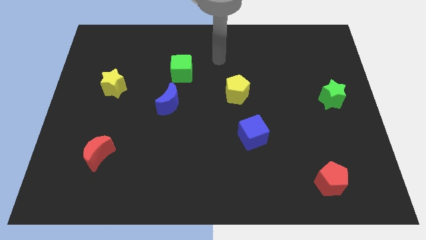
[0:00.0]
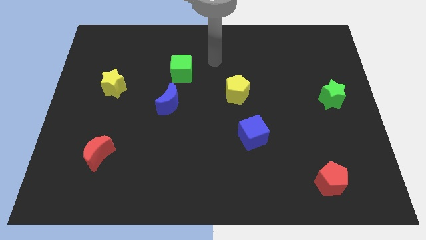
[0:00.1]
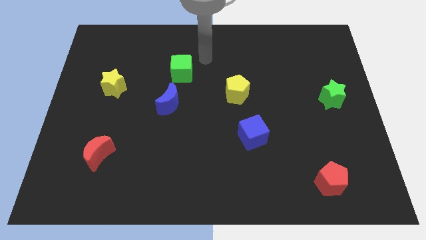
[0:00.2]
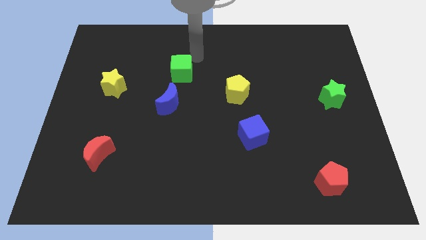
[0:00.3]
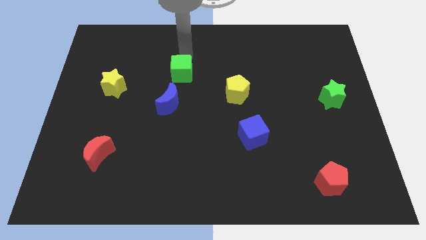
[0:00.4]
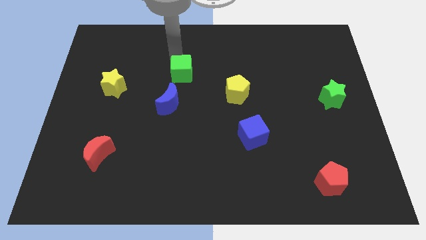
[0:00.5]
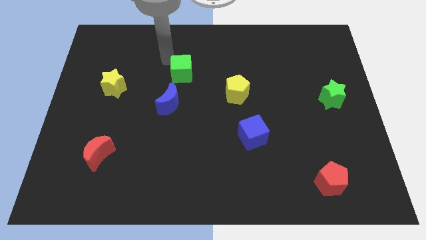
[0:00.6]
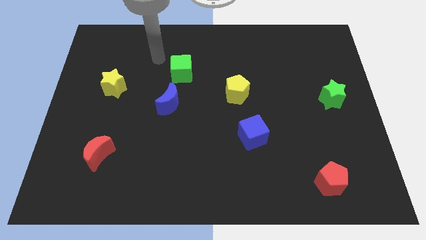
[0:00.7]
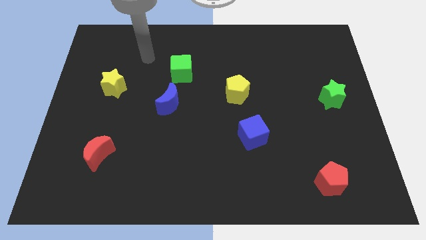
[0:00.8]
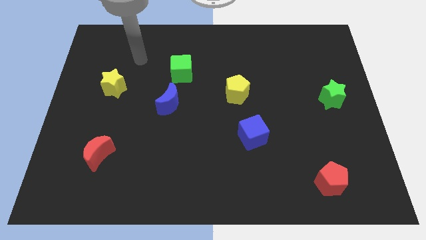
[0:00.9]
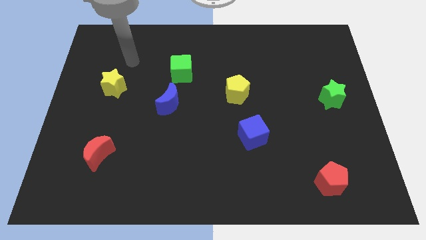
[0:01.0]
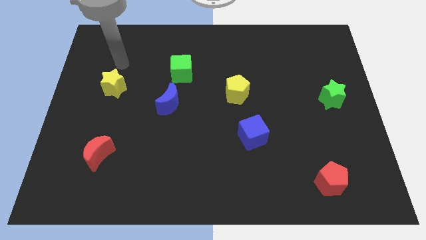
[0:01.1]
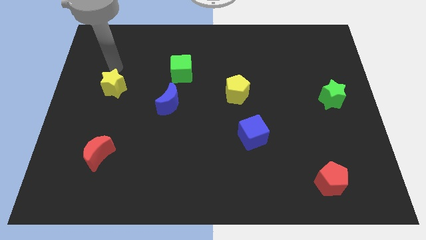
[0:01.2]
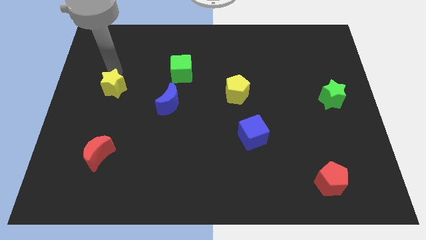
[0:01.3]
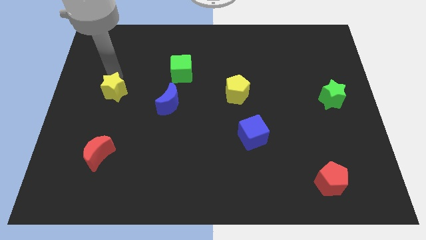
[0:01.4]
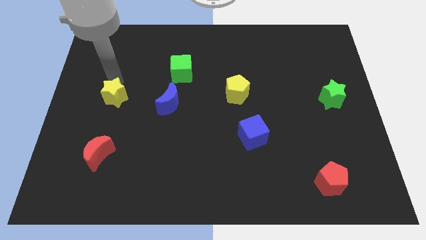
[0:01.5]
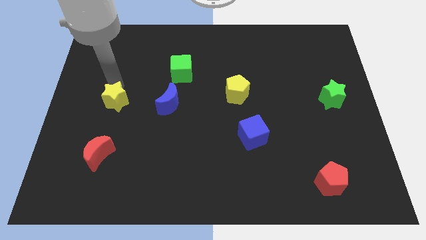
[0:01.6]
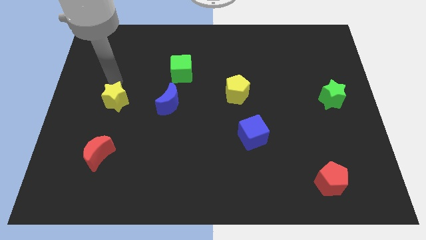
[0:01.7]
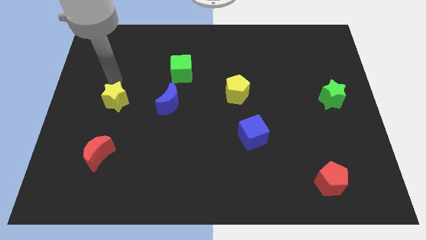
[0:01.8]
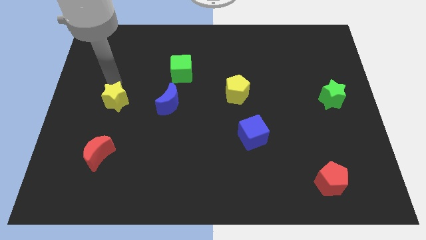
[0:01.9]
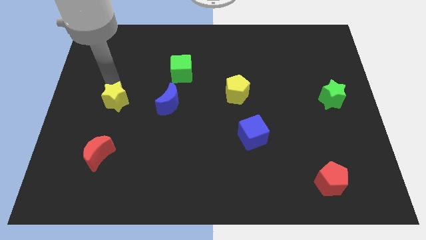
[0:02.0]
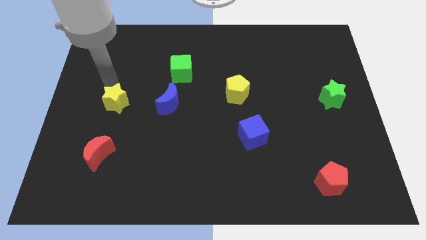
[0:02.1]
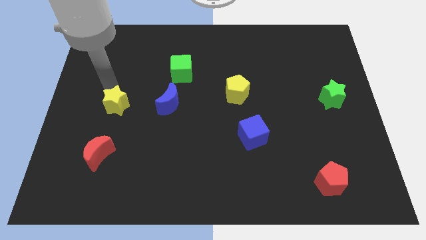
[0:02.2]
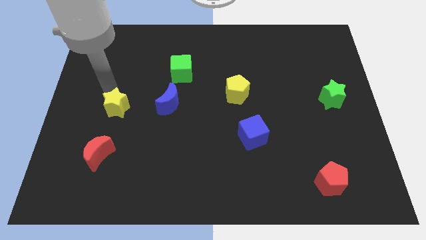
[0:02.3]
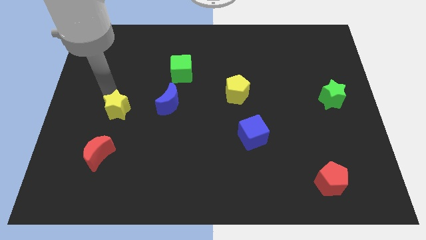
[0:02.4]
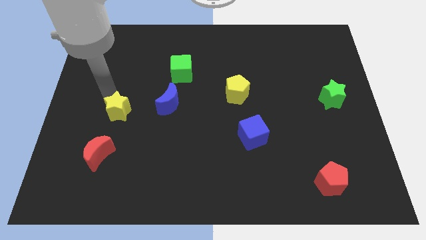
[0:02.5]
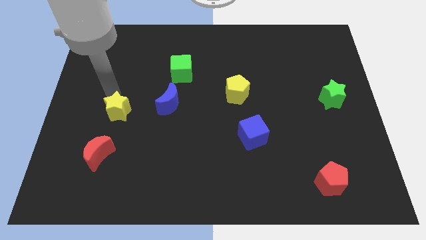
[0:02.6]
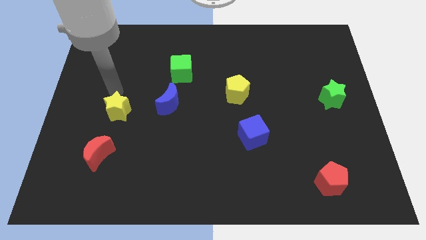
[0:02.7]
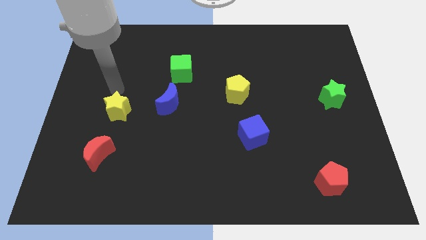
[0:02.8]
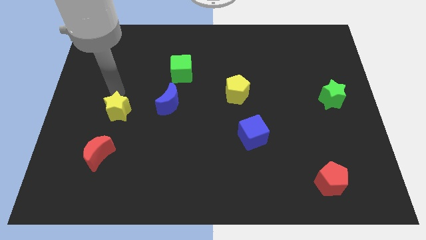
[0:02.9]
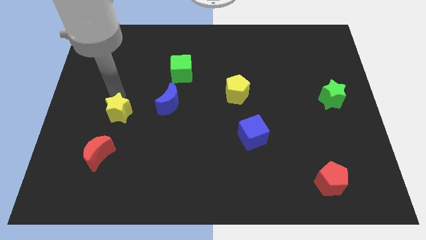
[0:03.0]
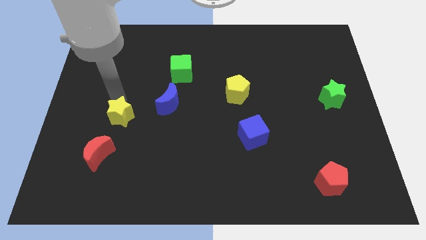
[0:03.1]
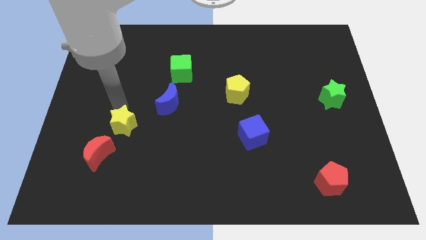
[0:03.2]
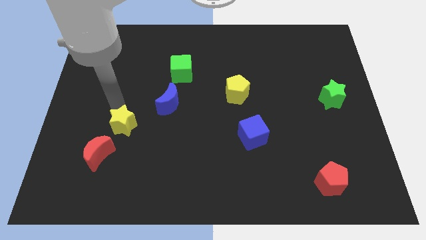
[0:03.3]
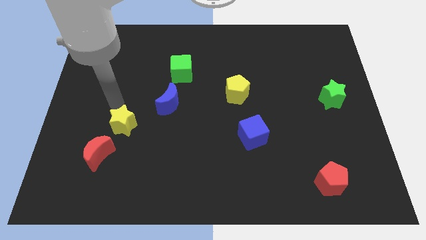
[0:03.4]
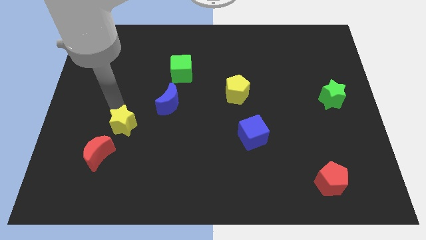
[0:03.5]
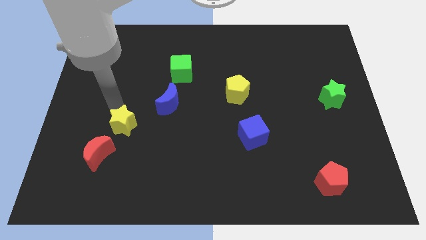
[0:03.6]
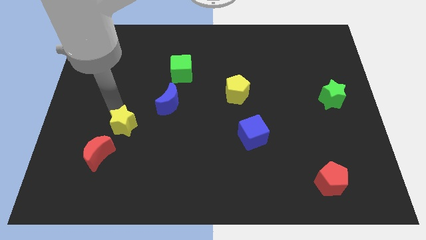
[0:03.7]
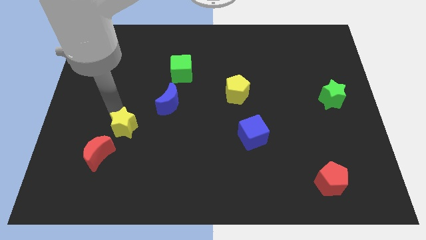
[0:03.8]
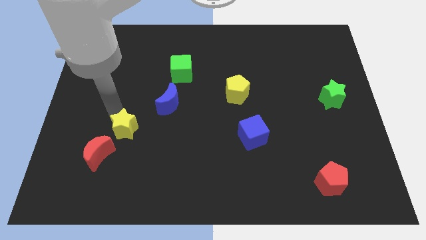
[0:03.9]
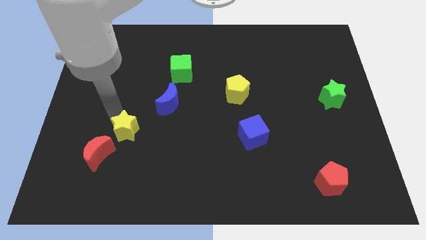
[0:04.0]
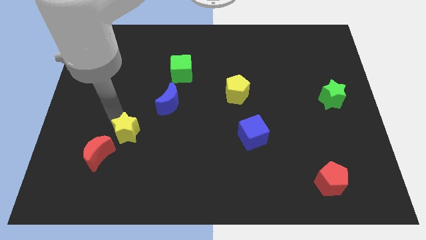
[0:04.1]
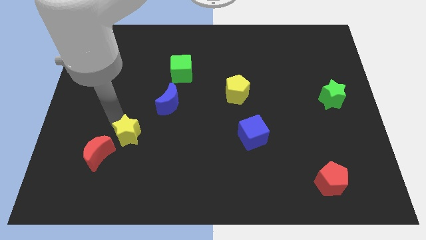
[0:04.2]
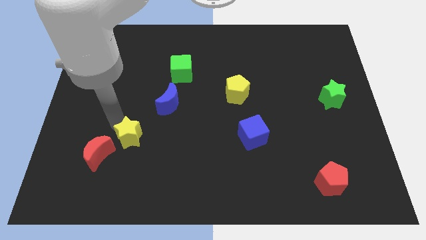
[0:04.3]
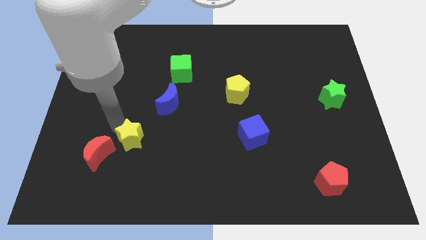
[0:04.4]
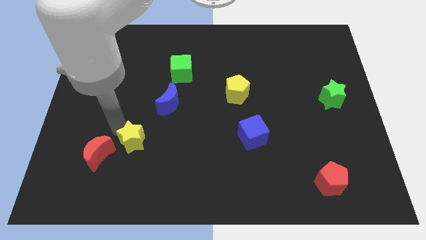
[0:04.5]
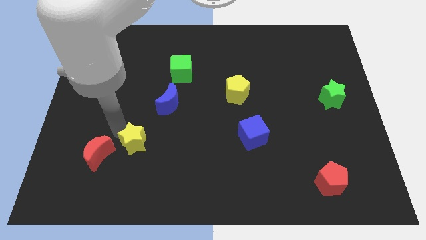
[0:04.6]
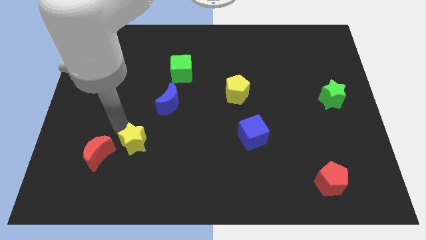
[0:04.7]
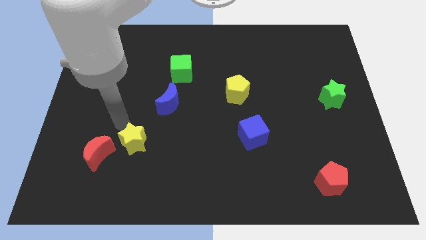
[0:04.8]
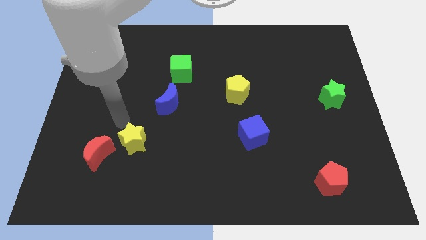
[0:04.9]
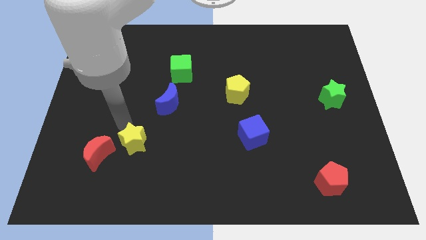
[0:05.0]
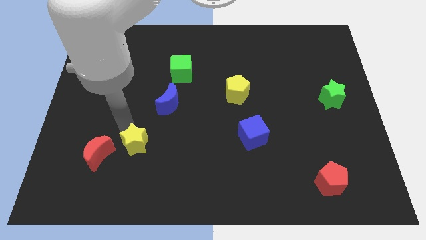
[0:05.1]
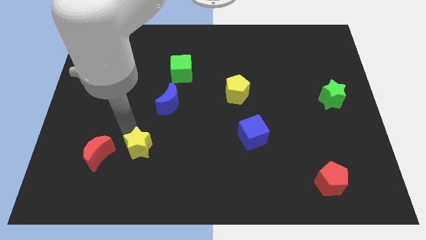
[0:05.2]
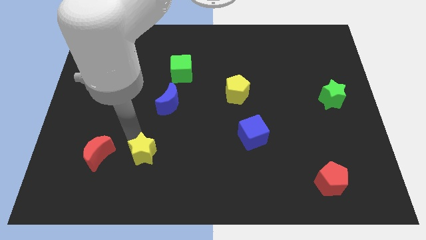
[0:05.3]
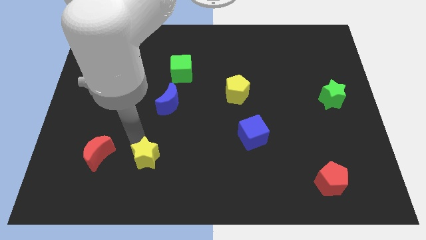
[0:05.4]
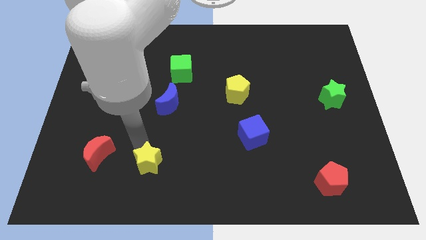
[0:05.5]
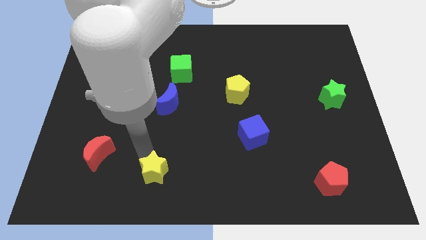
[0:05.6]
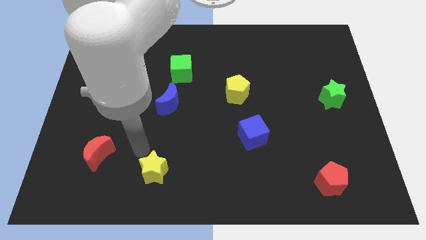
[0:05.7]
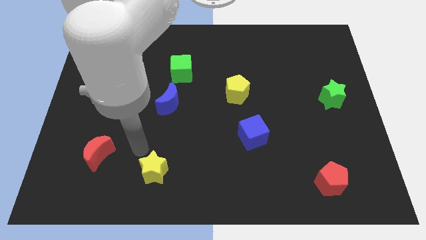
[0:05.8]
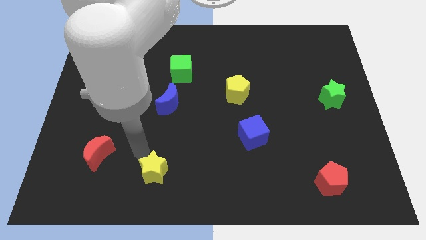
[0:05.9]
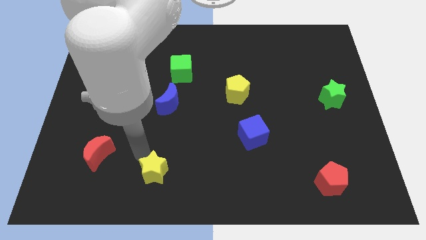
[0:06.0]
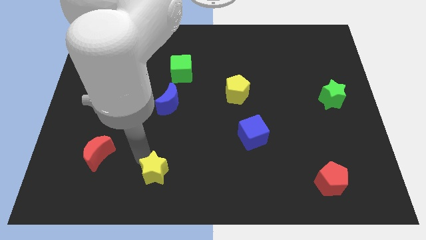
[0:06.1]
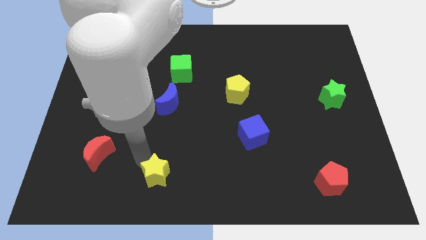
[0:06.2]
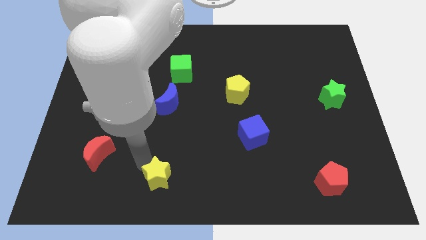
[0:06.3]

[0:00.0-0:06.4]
move the yellow star to the bottom
